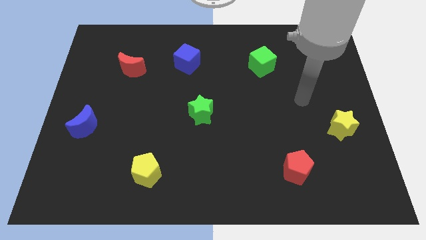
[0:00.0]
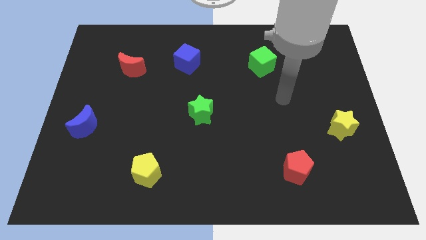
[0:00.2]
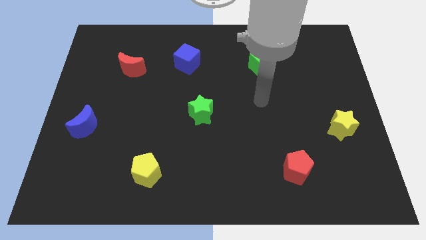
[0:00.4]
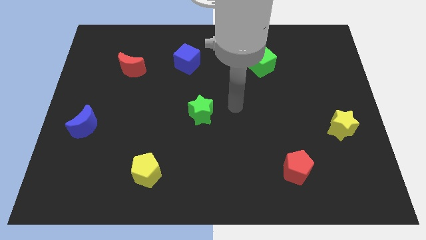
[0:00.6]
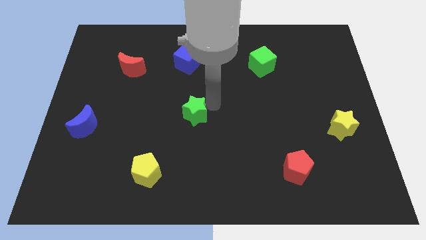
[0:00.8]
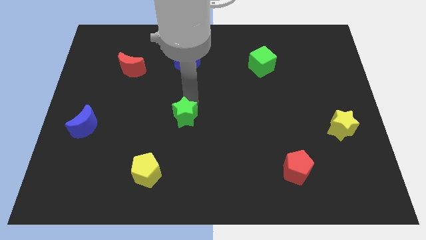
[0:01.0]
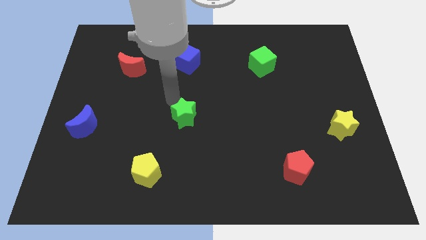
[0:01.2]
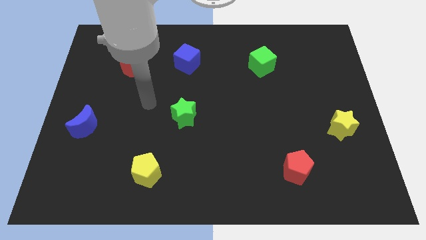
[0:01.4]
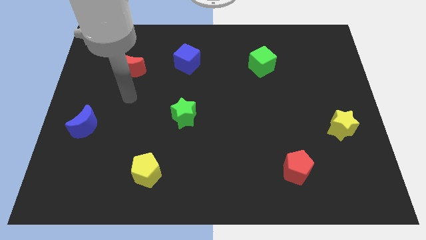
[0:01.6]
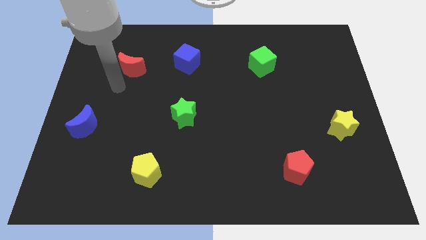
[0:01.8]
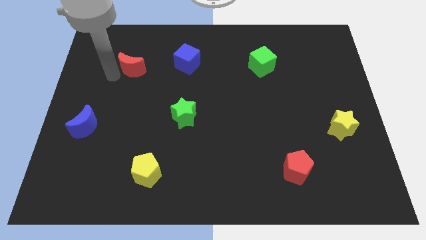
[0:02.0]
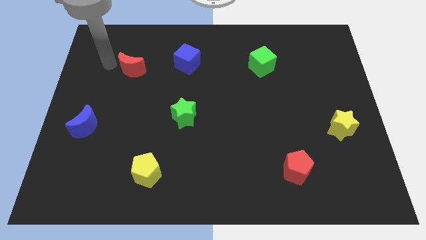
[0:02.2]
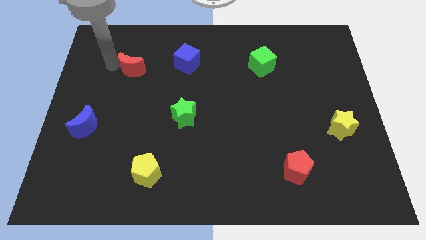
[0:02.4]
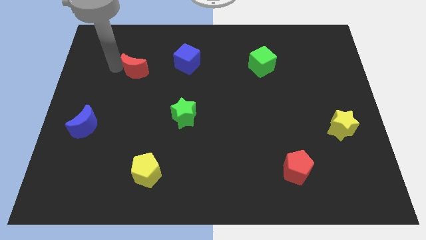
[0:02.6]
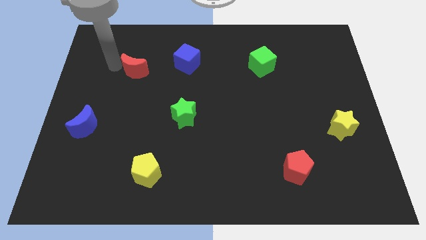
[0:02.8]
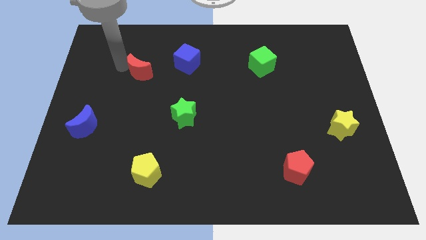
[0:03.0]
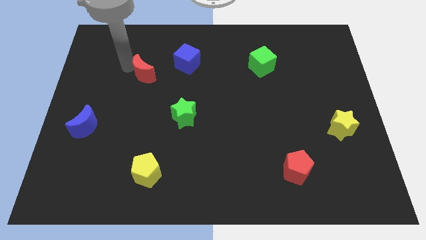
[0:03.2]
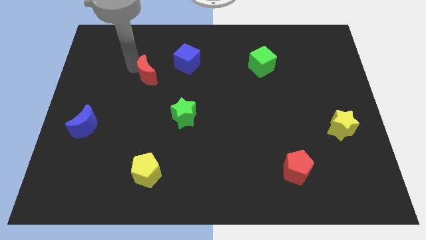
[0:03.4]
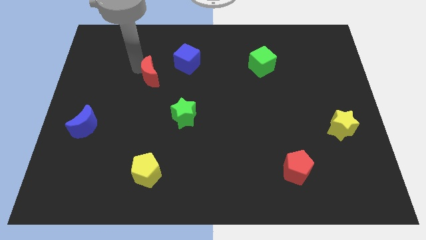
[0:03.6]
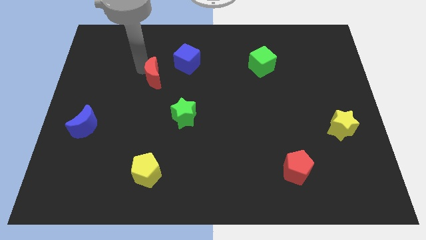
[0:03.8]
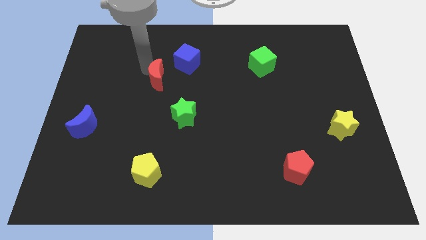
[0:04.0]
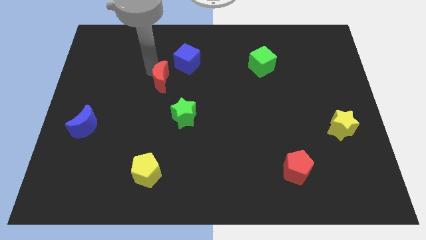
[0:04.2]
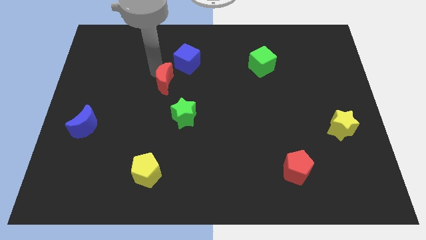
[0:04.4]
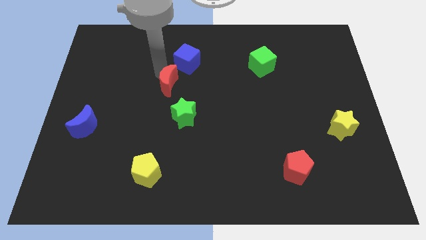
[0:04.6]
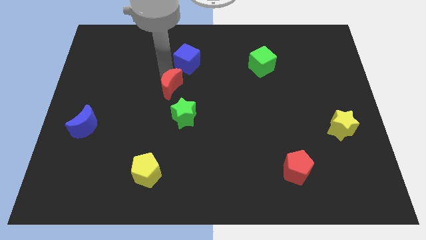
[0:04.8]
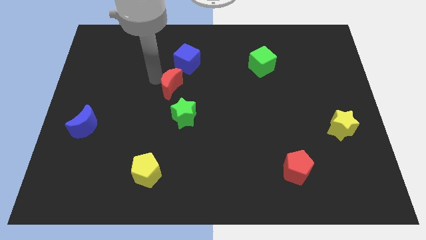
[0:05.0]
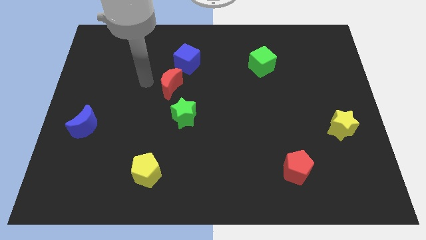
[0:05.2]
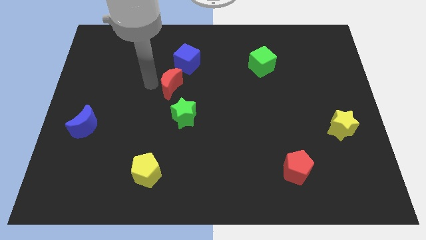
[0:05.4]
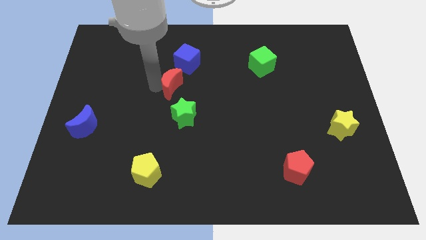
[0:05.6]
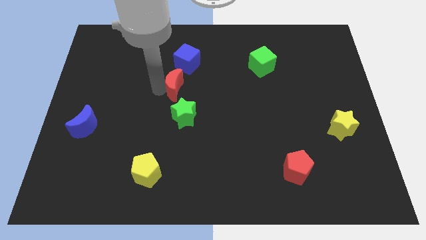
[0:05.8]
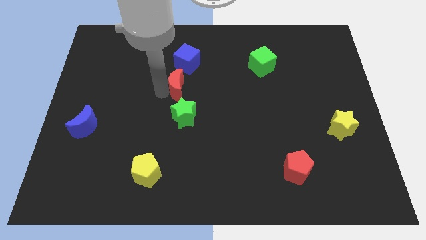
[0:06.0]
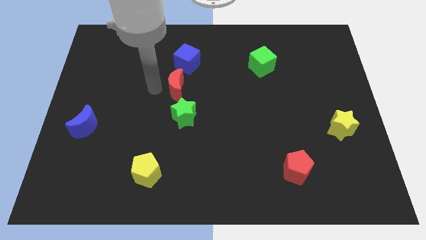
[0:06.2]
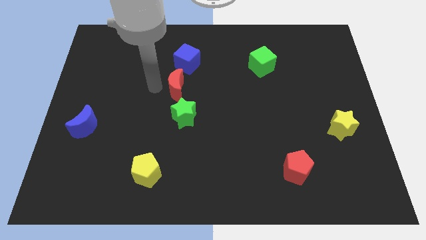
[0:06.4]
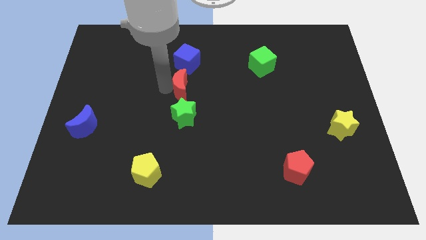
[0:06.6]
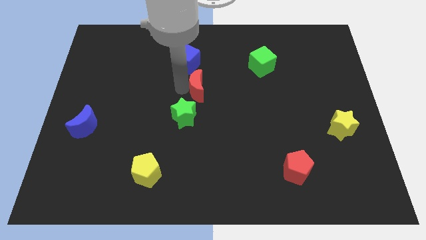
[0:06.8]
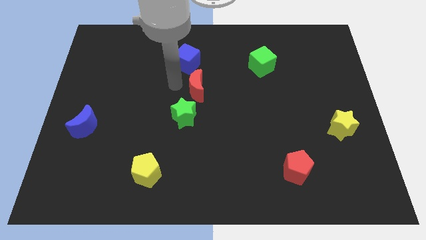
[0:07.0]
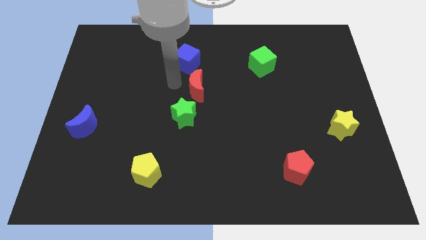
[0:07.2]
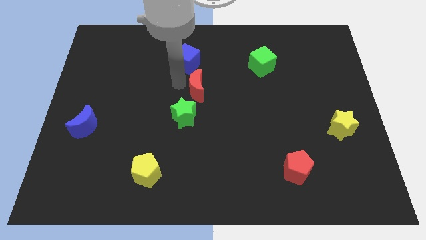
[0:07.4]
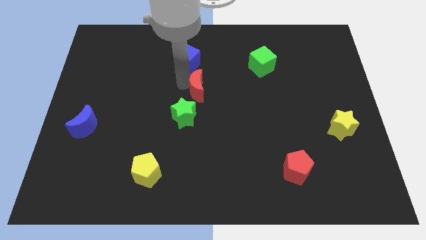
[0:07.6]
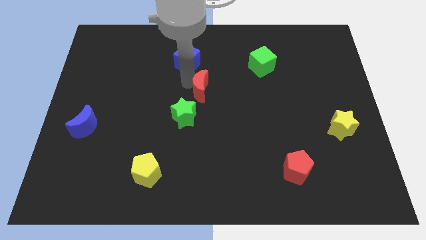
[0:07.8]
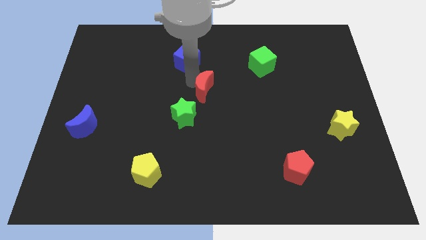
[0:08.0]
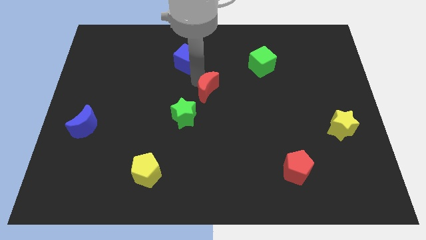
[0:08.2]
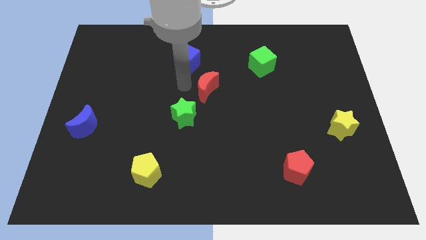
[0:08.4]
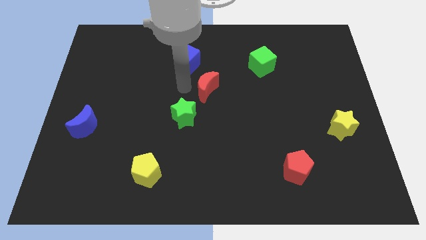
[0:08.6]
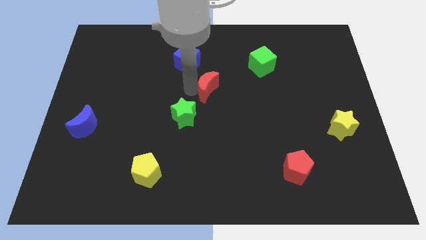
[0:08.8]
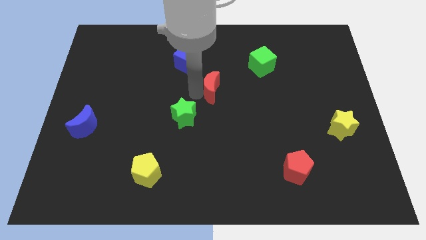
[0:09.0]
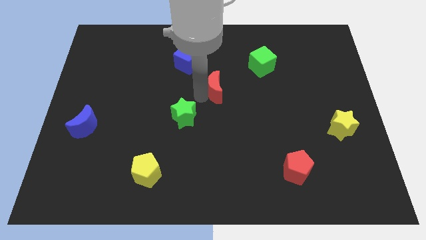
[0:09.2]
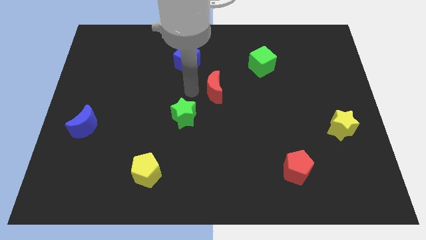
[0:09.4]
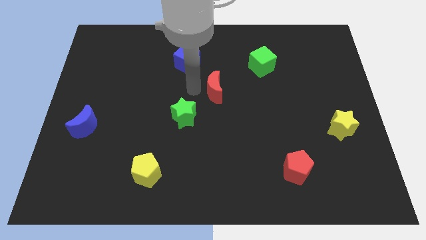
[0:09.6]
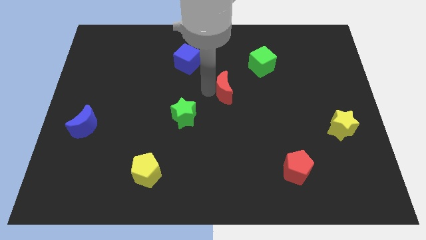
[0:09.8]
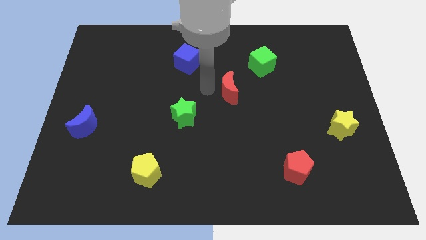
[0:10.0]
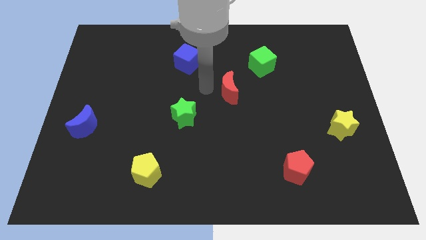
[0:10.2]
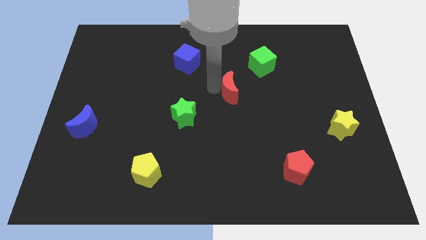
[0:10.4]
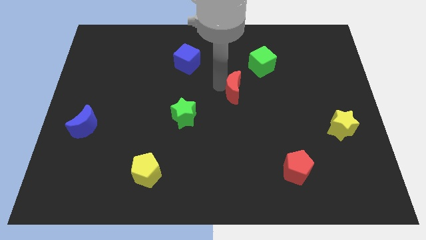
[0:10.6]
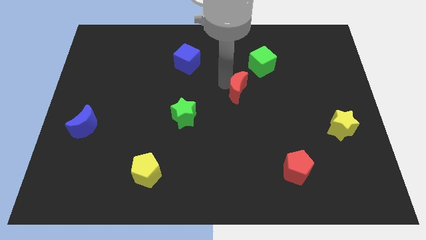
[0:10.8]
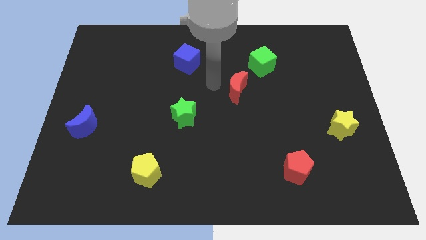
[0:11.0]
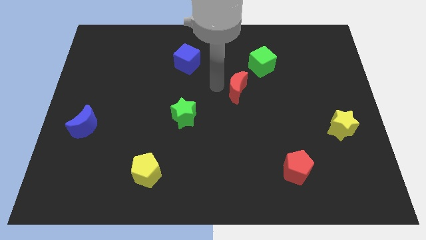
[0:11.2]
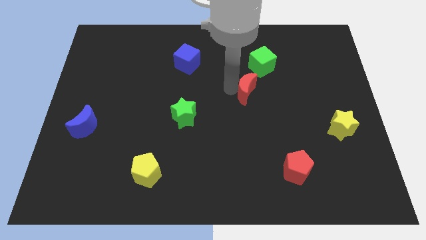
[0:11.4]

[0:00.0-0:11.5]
push the red moon below the green cube

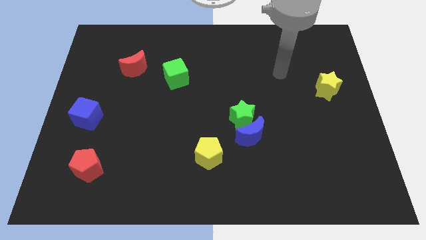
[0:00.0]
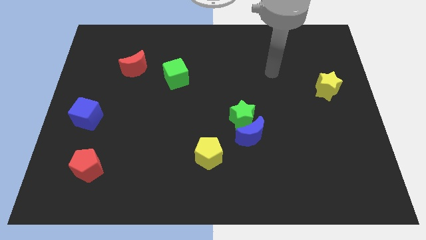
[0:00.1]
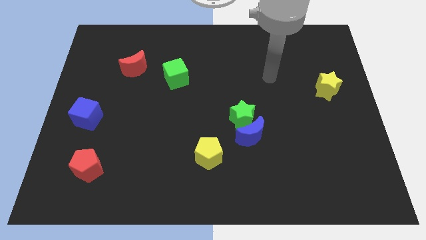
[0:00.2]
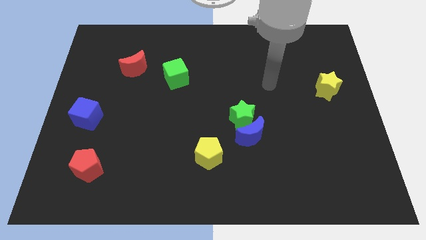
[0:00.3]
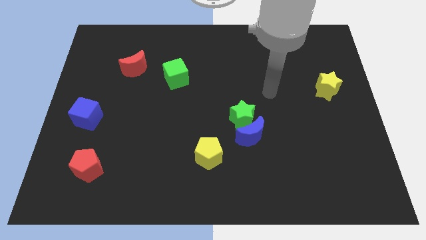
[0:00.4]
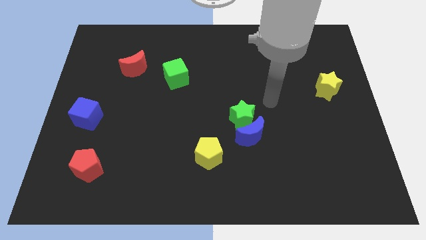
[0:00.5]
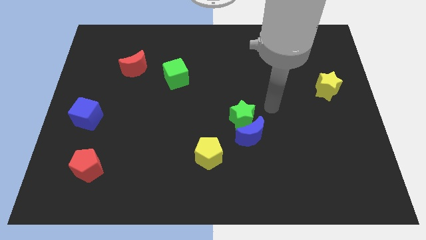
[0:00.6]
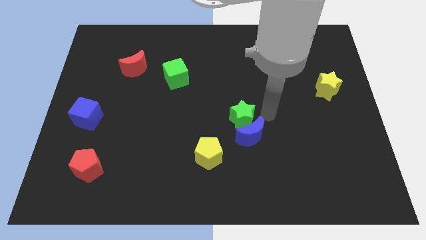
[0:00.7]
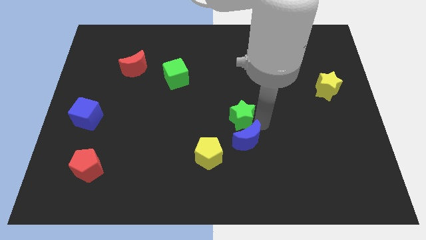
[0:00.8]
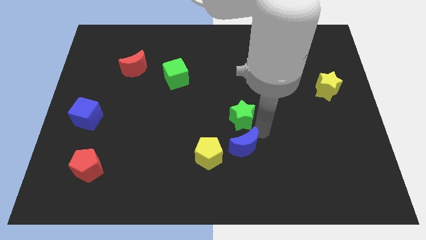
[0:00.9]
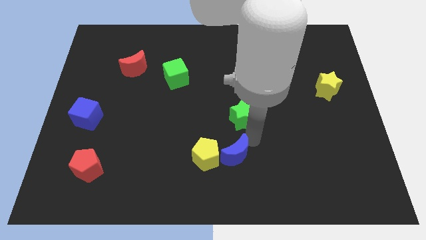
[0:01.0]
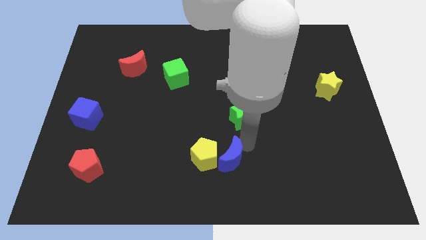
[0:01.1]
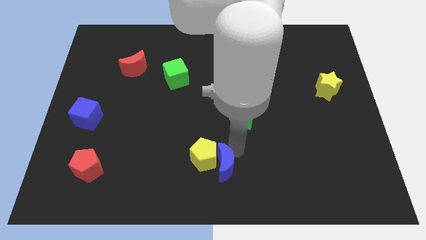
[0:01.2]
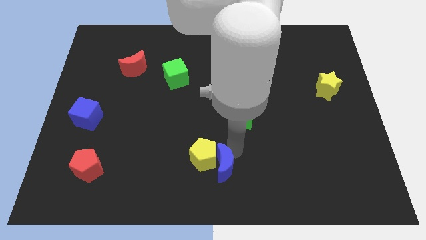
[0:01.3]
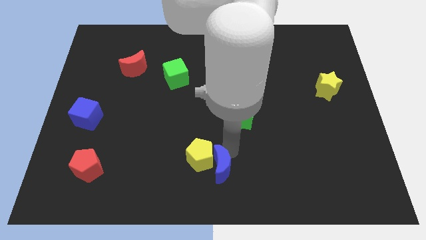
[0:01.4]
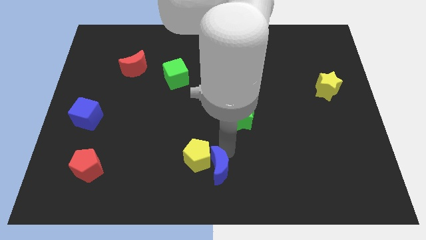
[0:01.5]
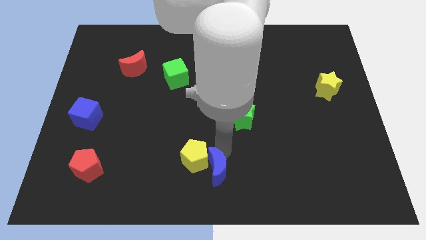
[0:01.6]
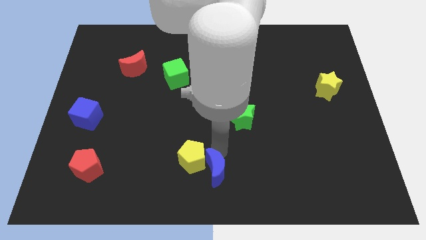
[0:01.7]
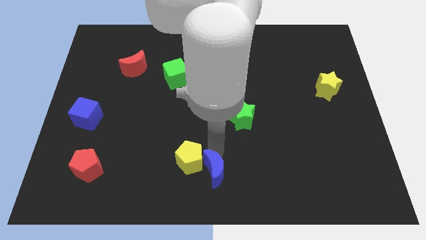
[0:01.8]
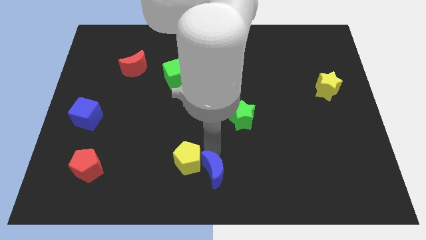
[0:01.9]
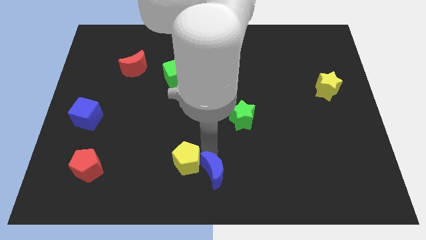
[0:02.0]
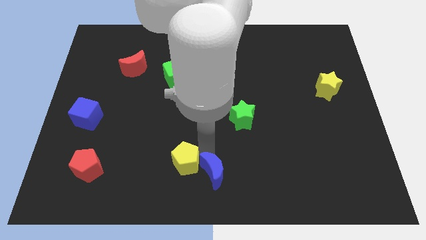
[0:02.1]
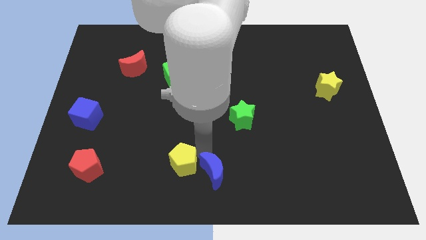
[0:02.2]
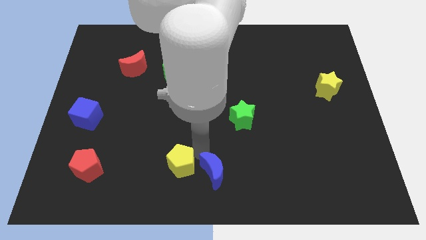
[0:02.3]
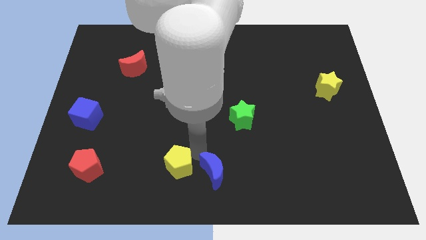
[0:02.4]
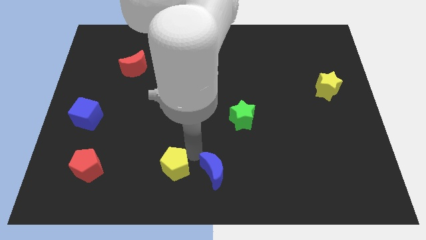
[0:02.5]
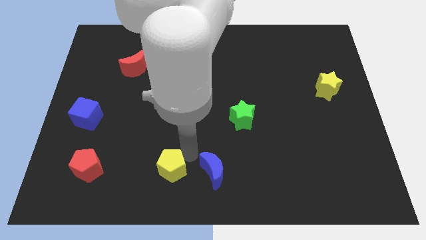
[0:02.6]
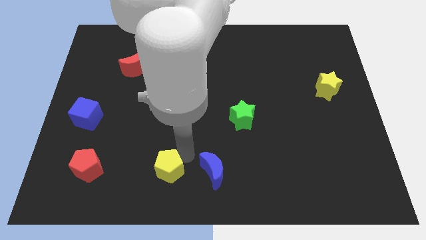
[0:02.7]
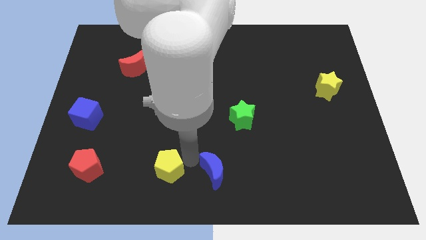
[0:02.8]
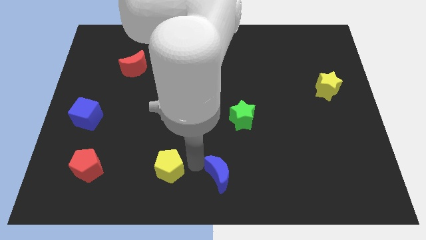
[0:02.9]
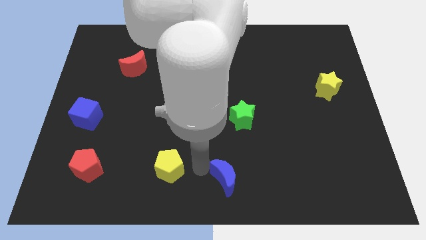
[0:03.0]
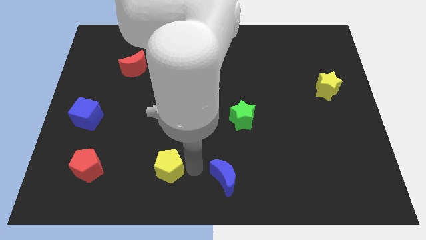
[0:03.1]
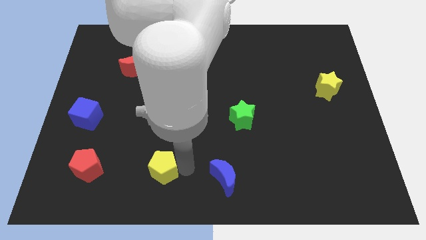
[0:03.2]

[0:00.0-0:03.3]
slide the yellow pentagon to the right of the red pentagon
